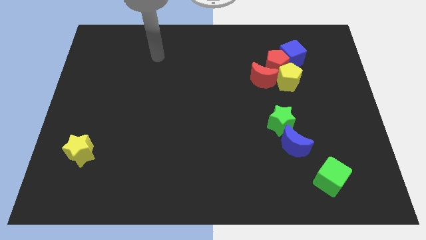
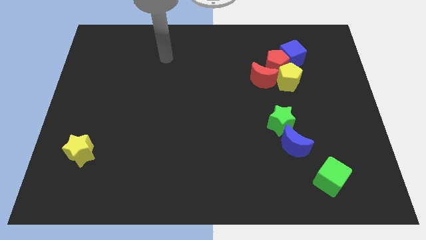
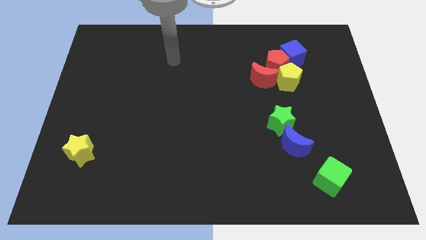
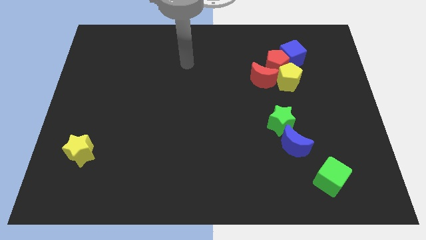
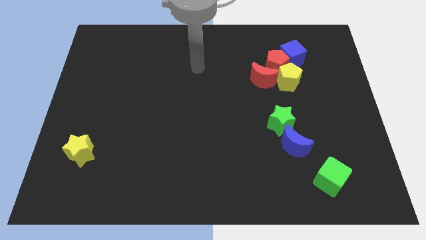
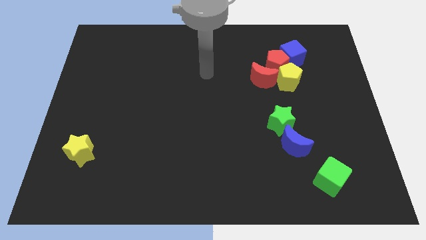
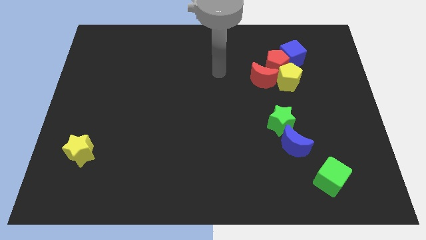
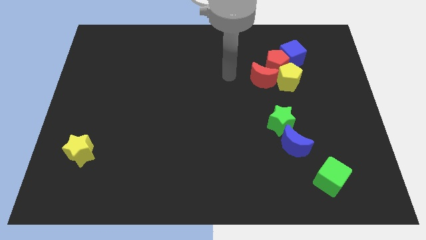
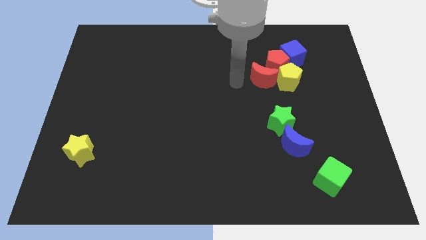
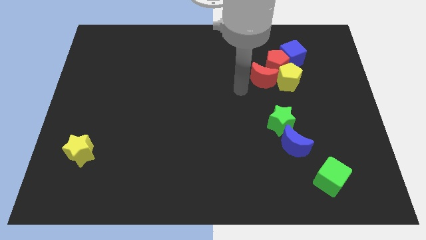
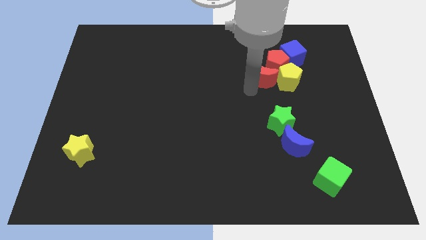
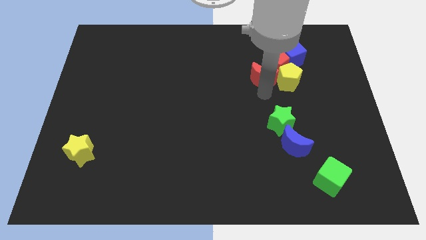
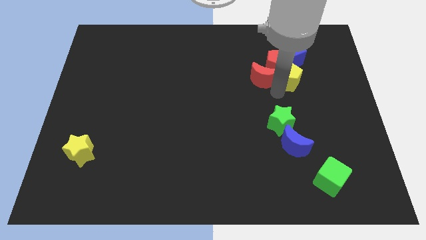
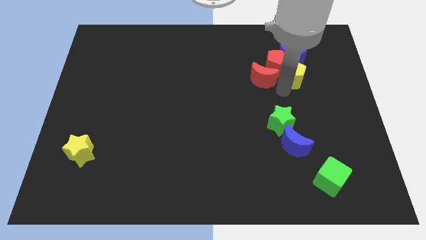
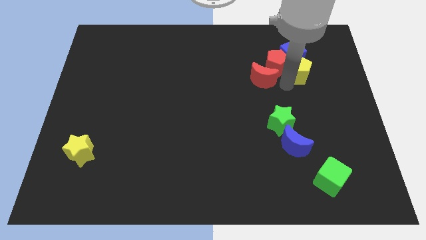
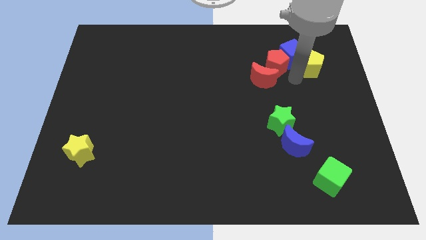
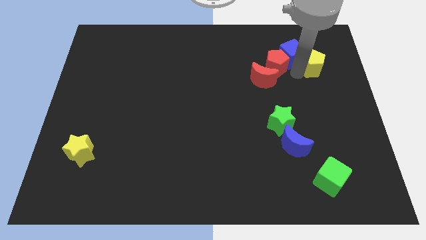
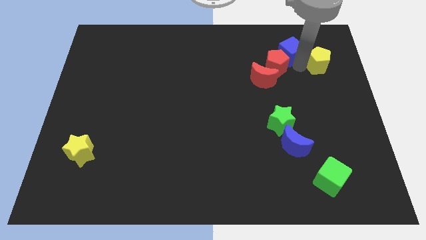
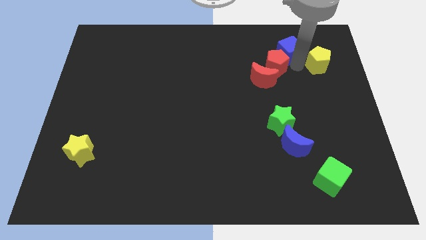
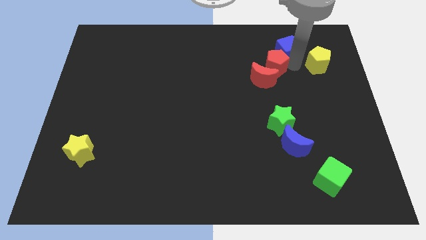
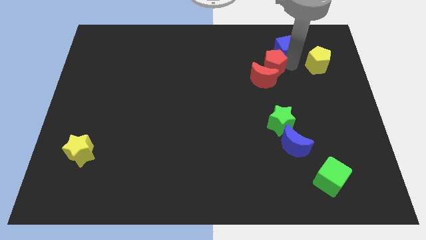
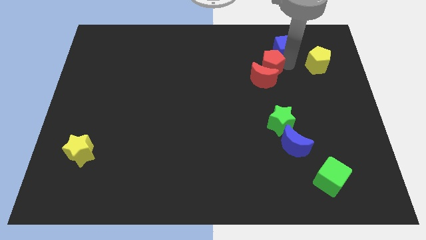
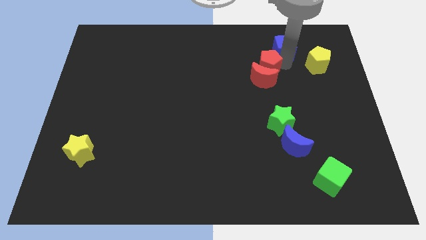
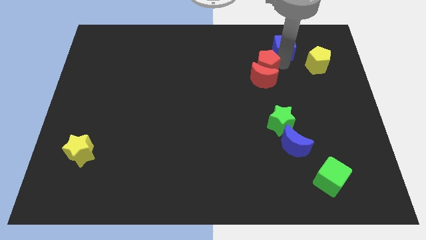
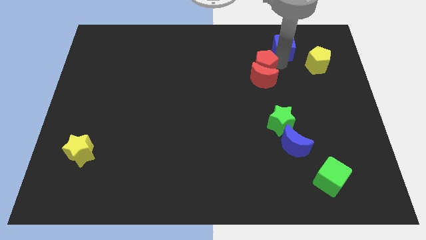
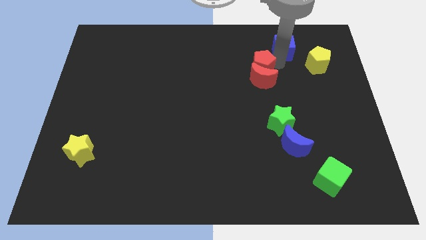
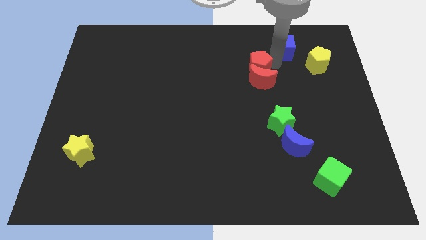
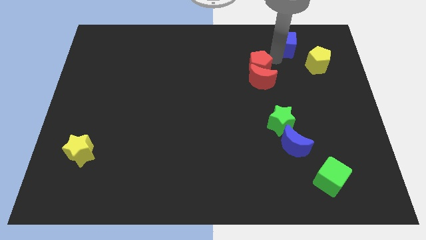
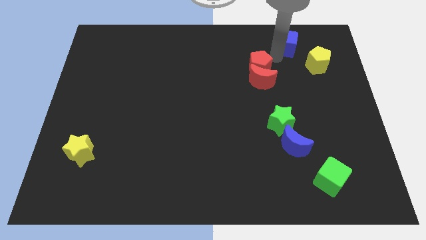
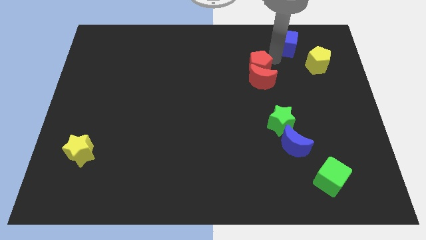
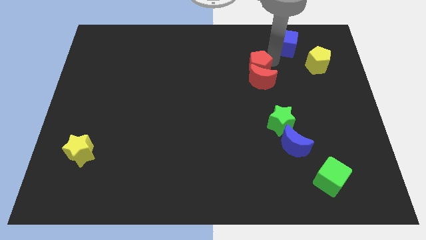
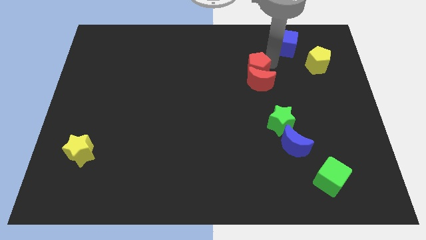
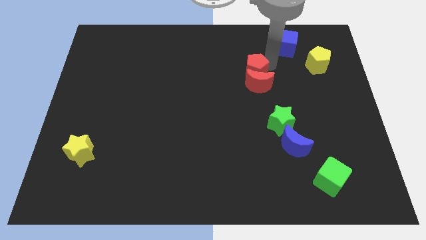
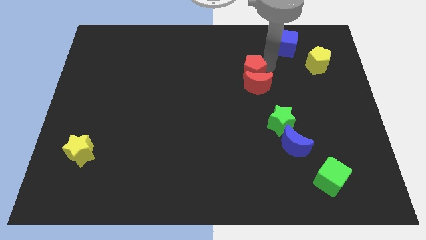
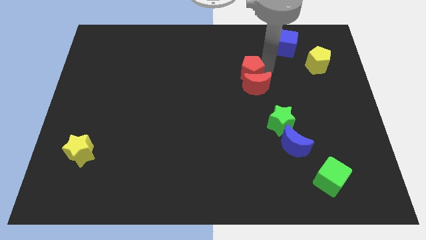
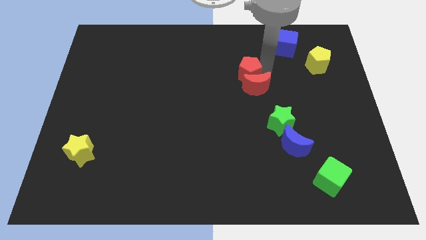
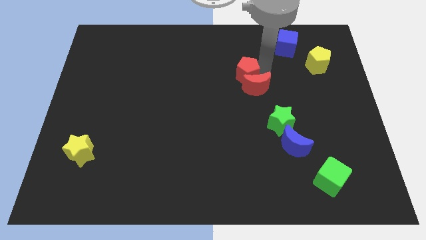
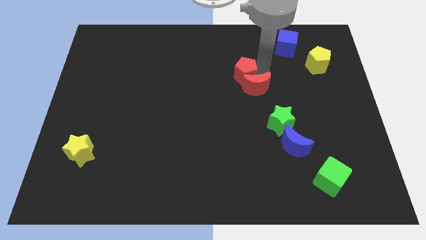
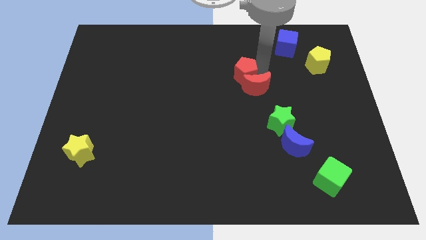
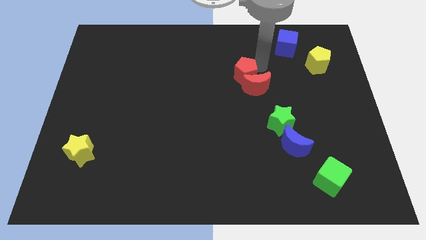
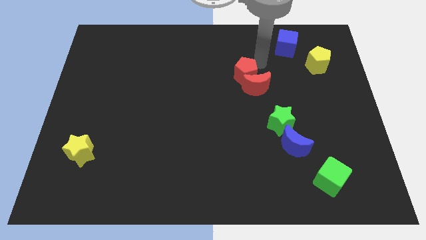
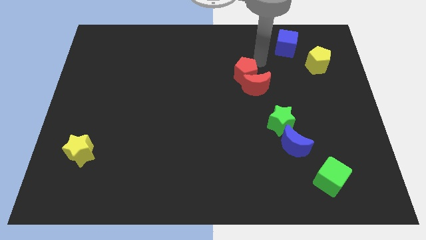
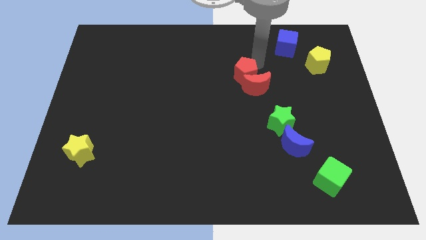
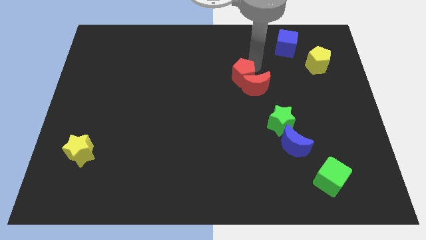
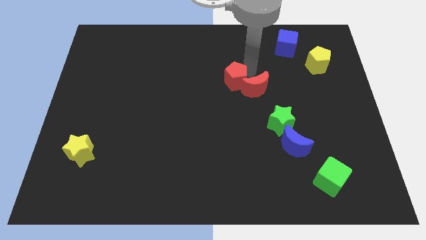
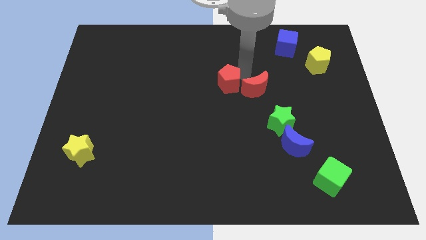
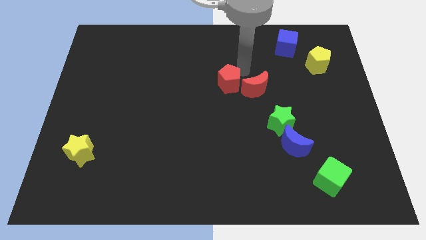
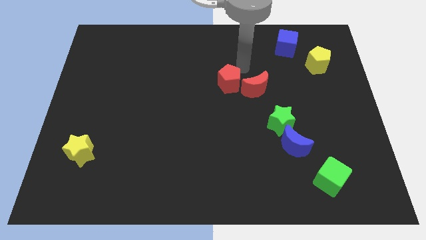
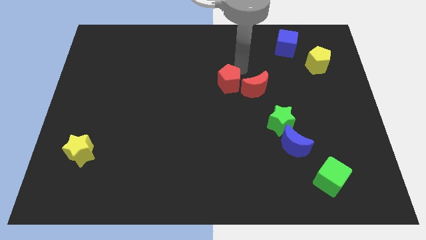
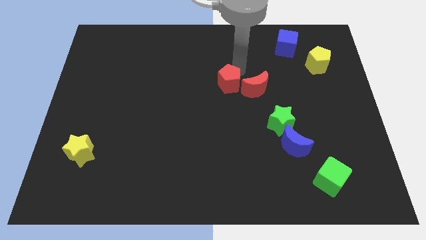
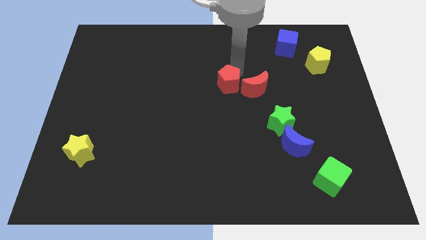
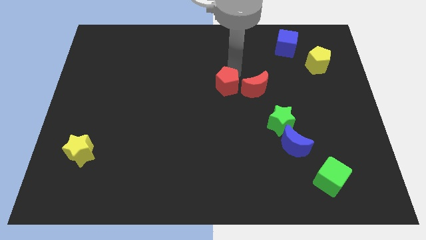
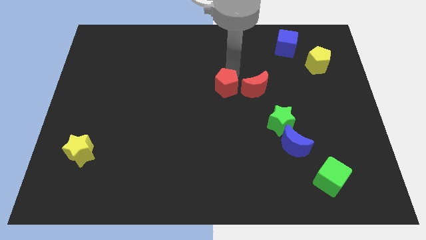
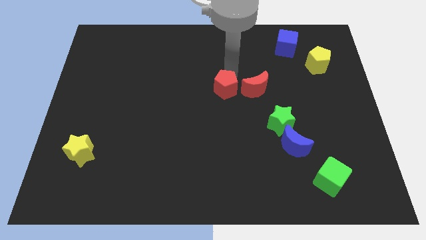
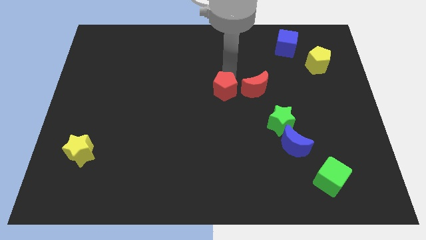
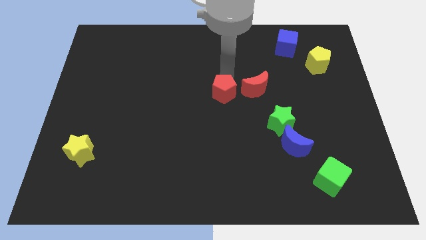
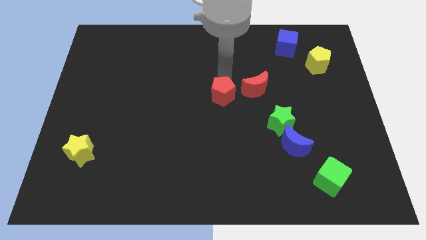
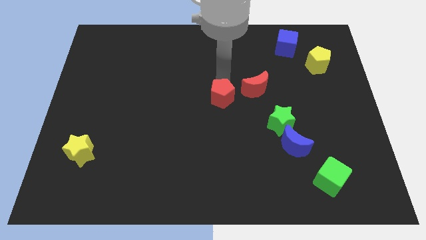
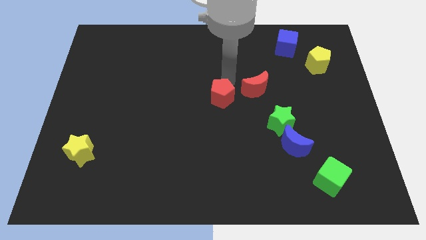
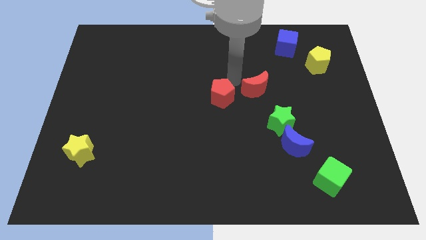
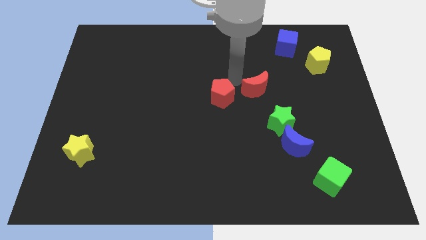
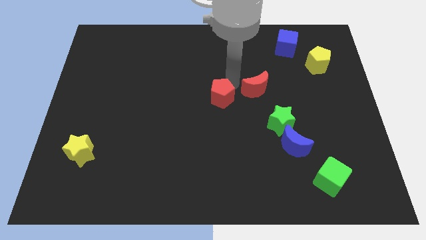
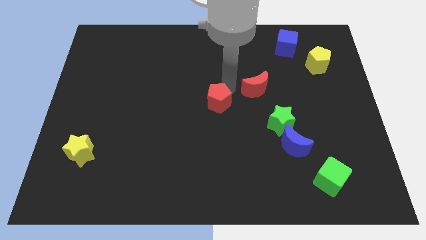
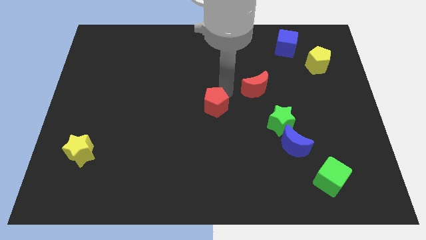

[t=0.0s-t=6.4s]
slide the red pentagon downwards and left

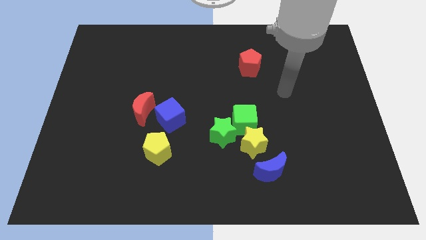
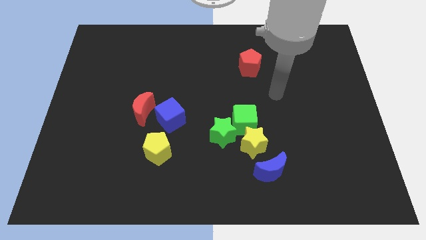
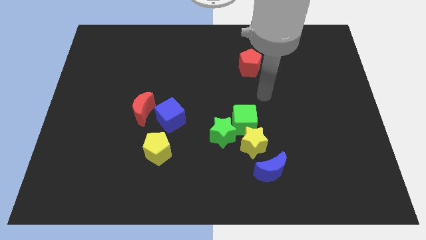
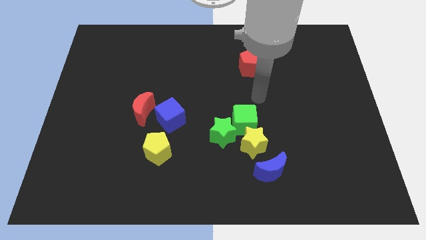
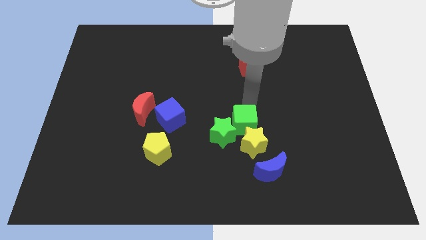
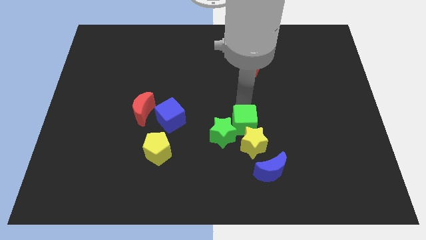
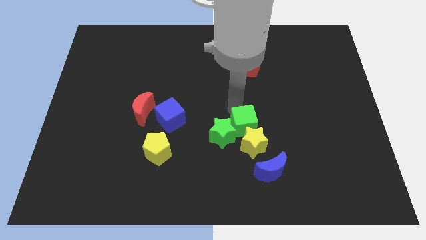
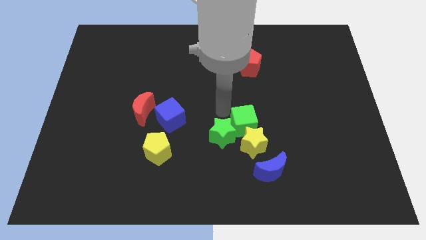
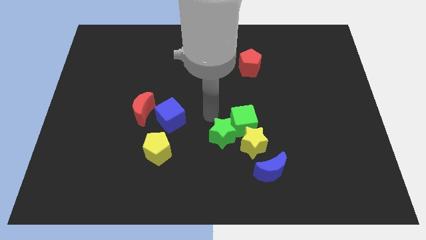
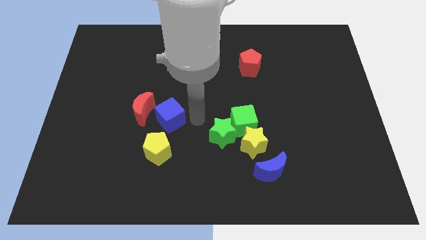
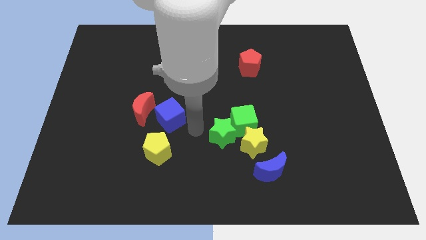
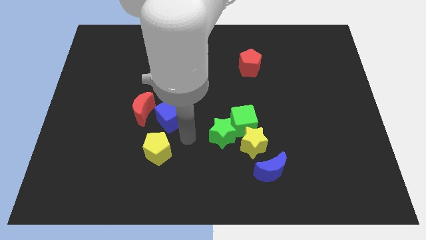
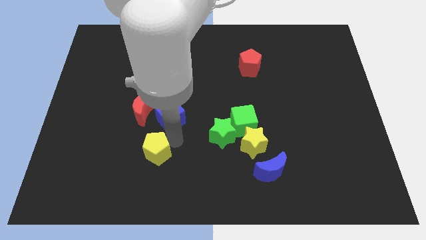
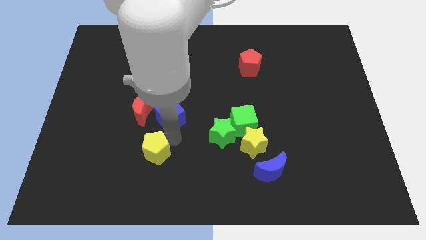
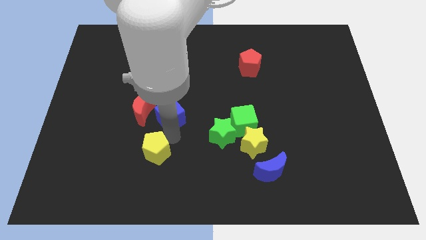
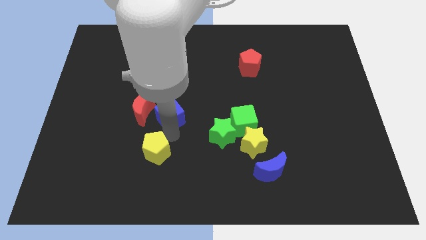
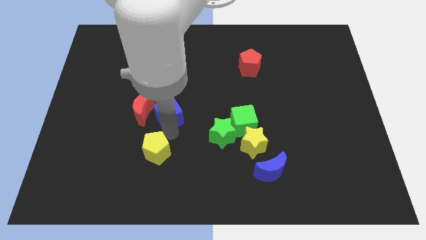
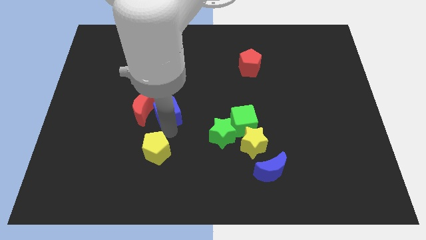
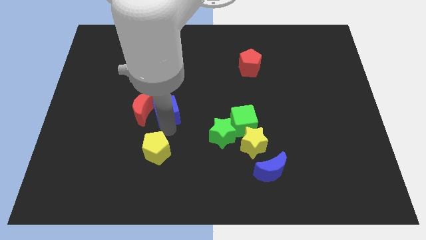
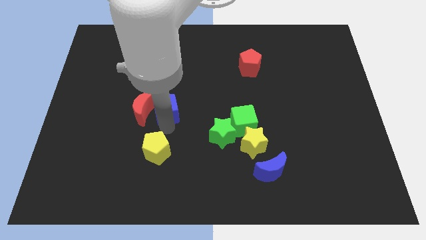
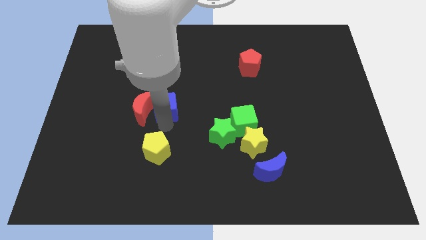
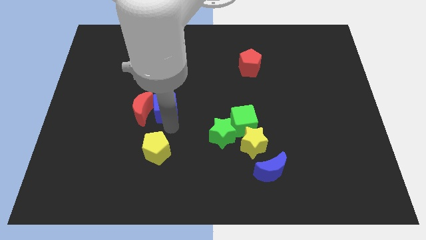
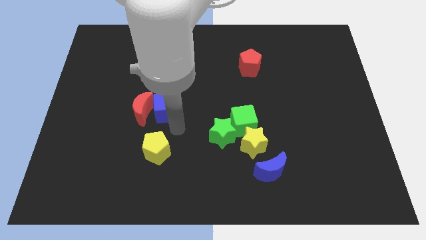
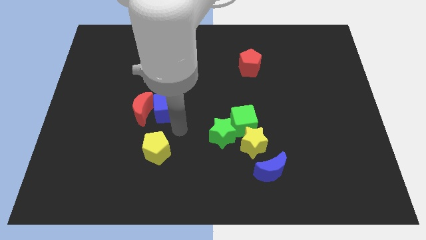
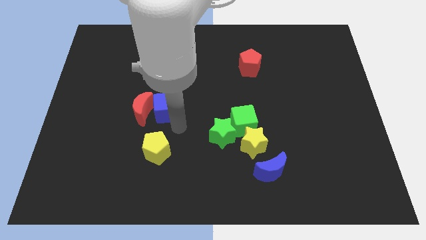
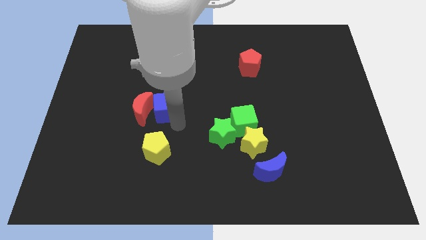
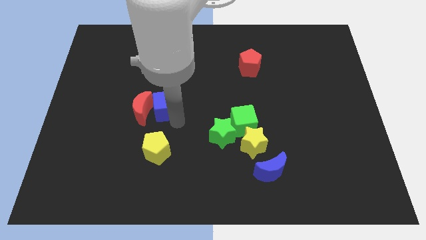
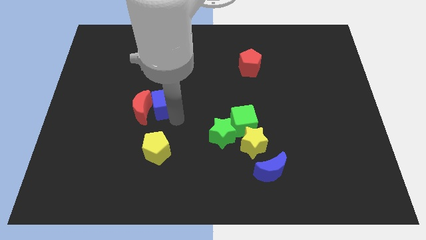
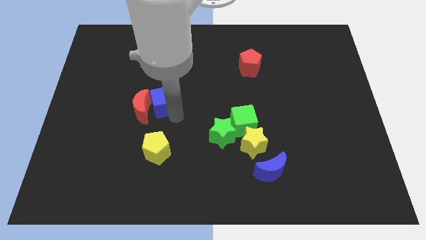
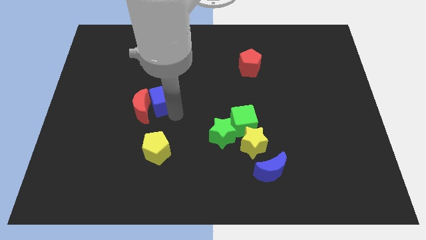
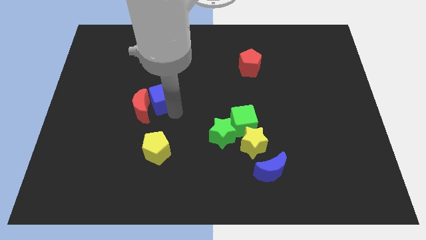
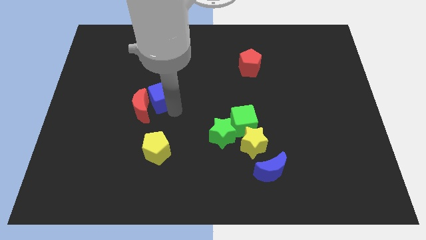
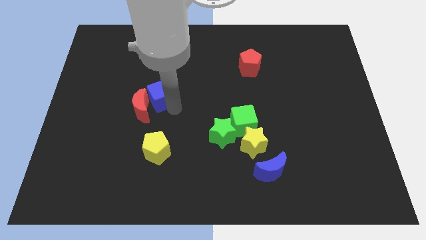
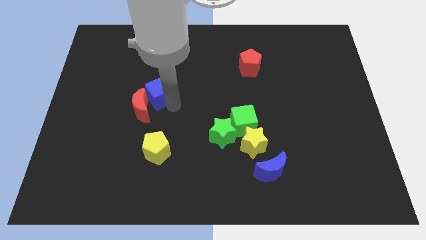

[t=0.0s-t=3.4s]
move the blue cube up and to the left diagonally slightly
